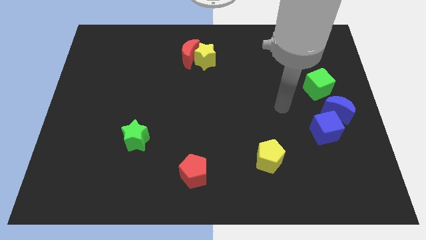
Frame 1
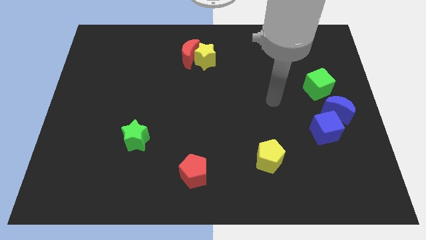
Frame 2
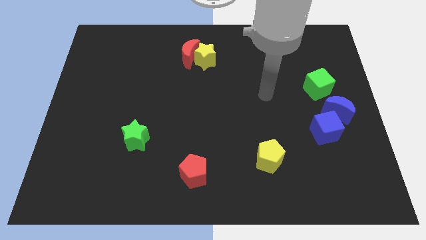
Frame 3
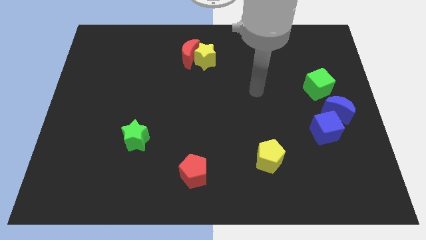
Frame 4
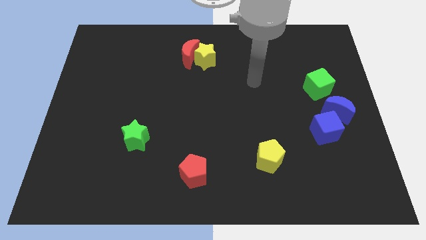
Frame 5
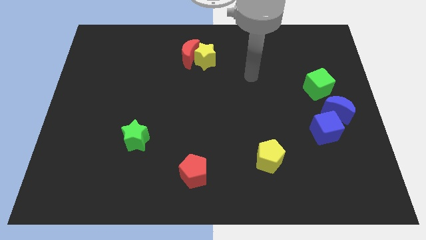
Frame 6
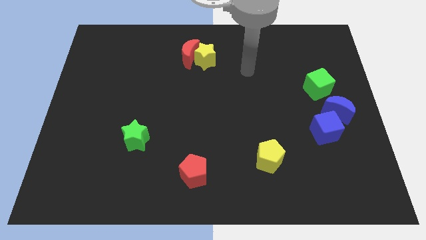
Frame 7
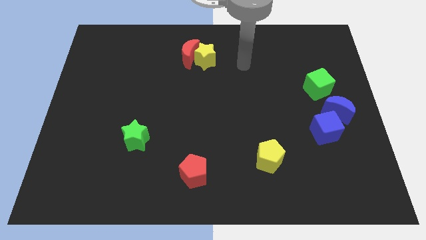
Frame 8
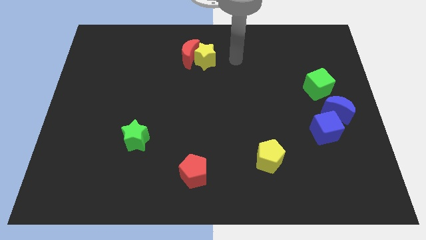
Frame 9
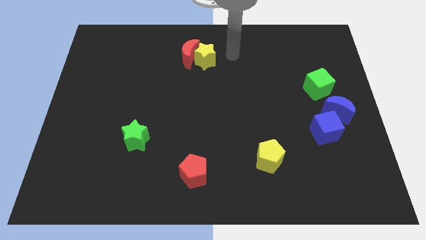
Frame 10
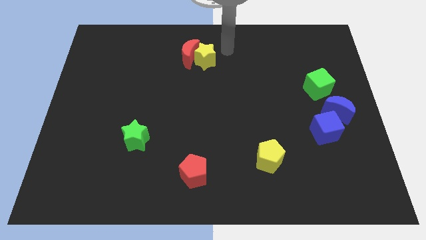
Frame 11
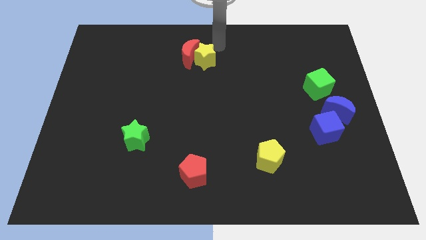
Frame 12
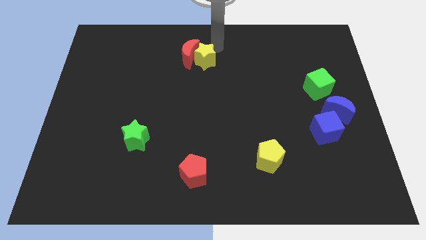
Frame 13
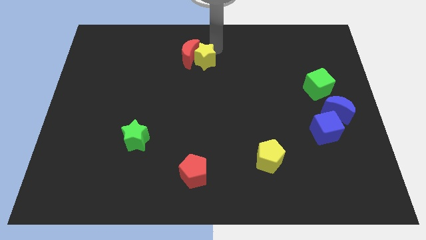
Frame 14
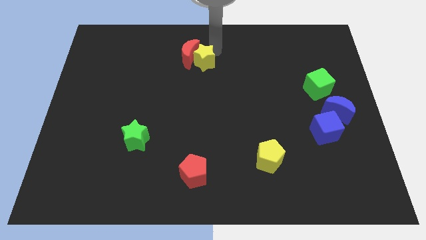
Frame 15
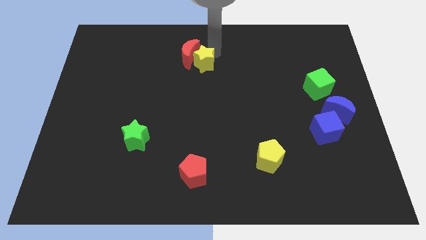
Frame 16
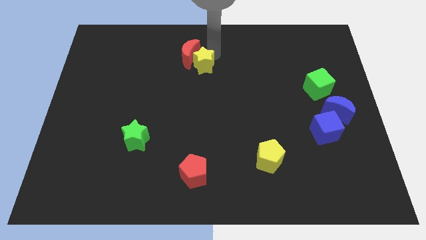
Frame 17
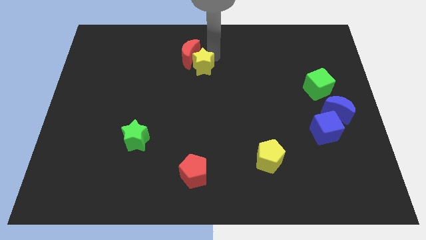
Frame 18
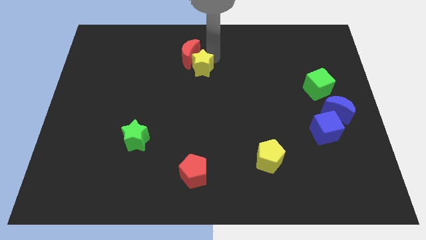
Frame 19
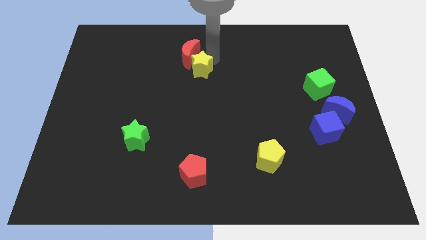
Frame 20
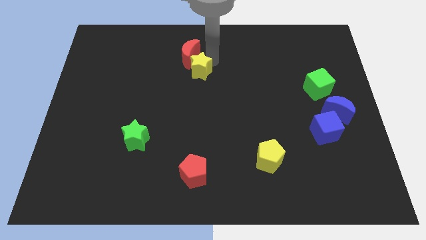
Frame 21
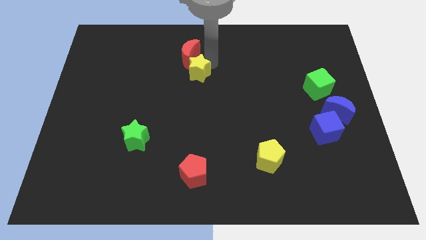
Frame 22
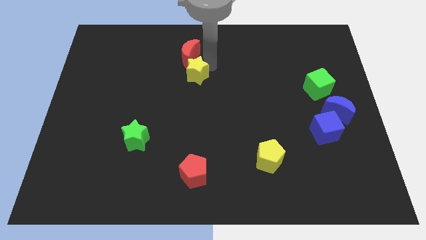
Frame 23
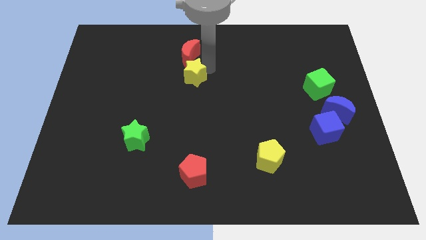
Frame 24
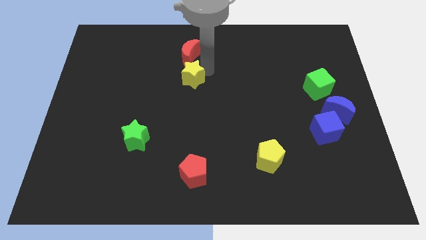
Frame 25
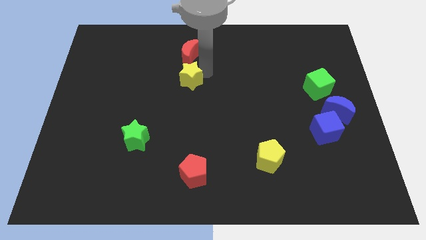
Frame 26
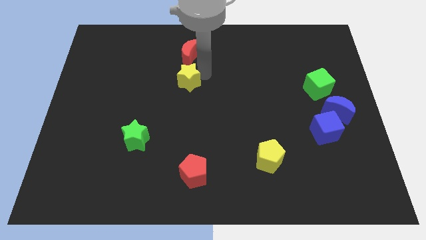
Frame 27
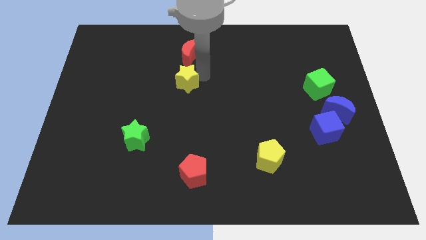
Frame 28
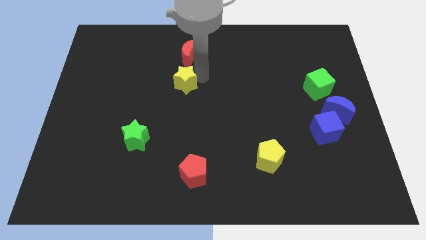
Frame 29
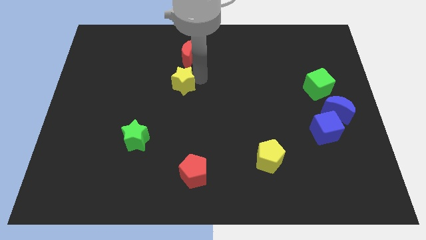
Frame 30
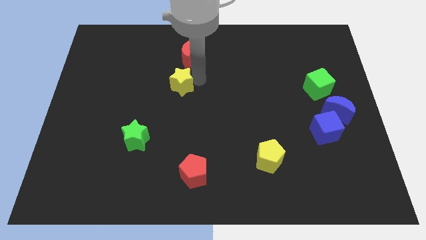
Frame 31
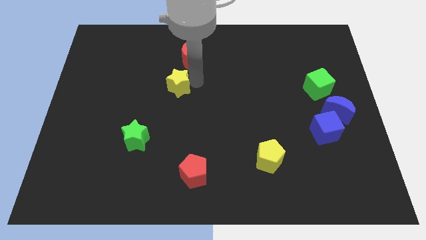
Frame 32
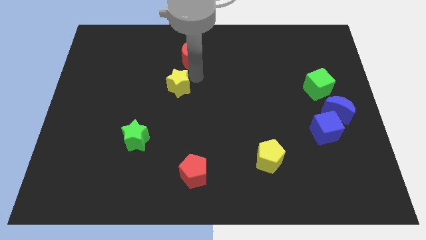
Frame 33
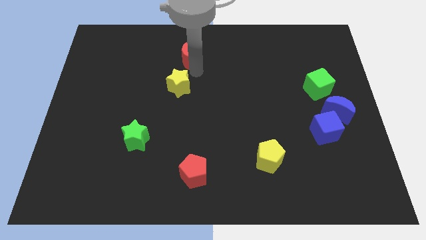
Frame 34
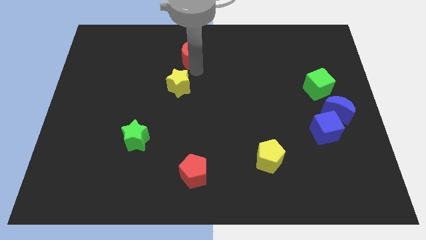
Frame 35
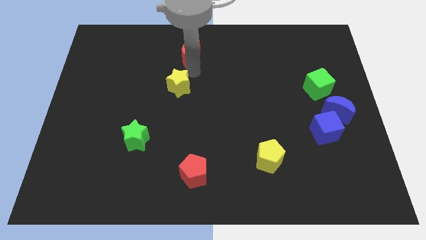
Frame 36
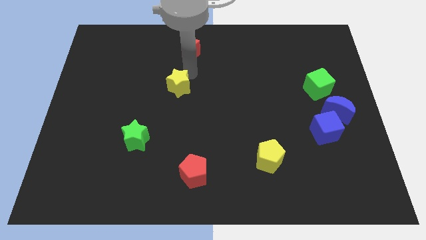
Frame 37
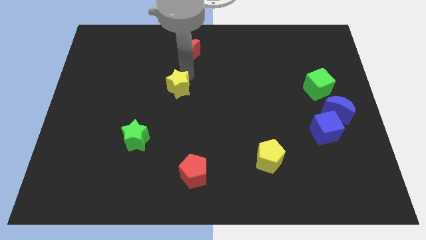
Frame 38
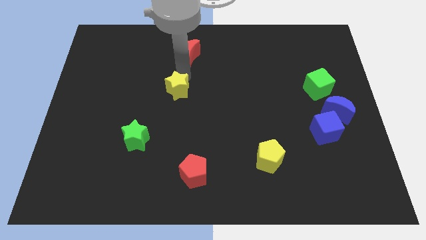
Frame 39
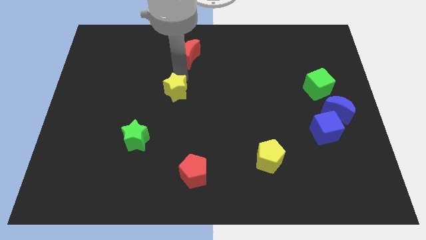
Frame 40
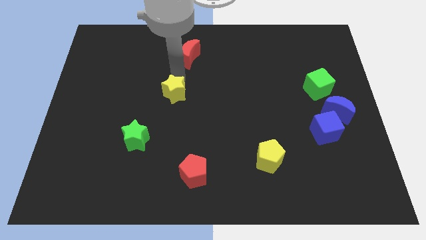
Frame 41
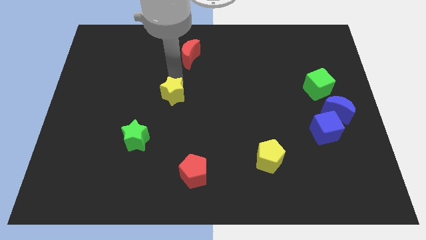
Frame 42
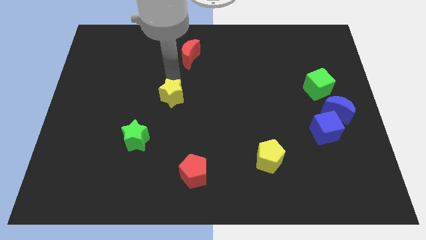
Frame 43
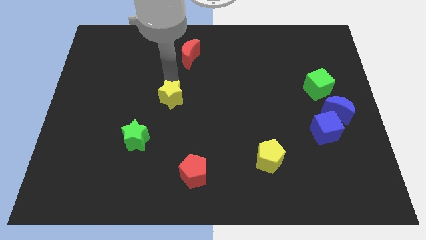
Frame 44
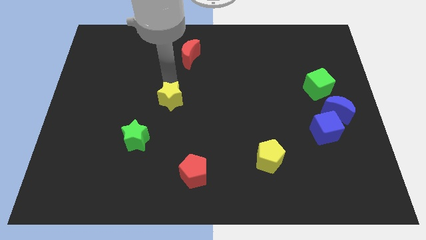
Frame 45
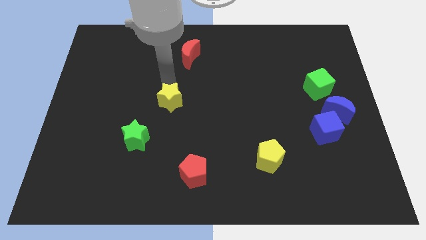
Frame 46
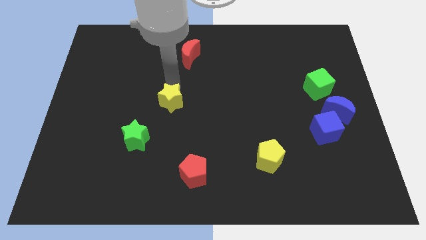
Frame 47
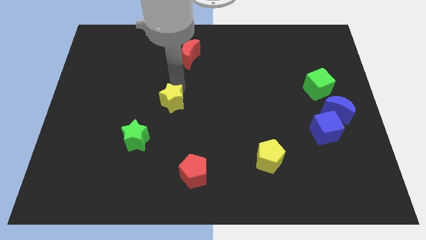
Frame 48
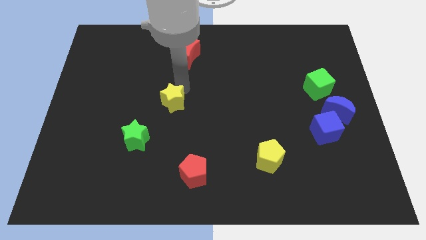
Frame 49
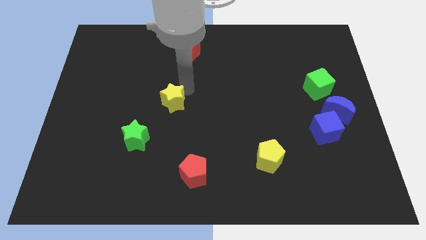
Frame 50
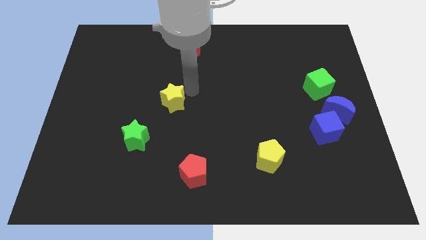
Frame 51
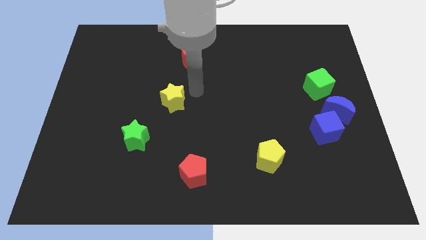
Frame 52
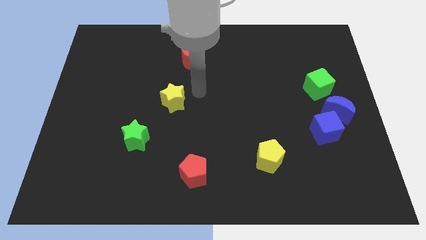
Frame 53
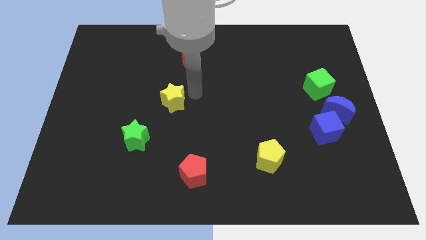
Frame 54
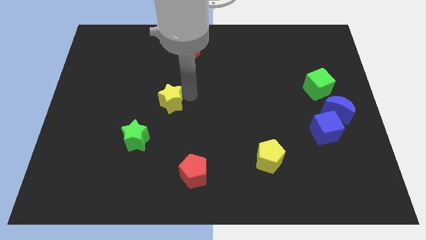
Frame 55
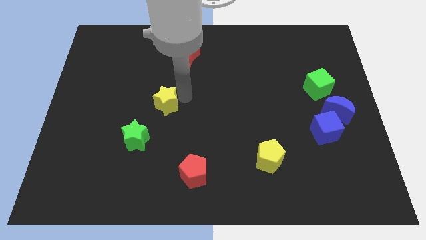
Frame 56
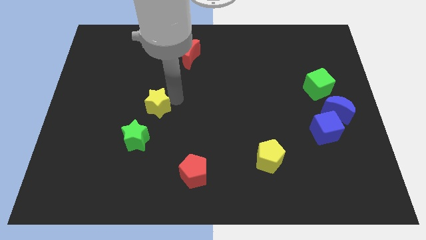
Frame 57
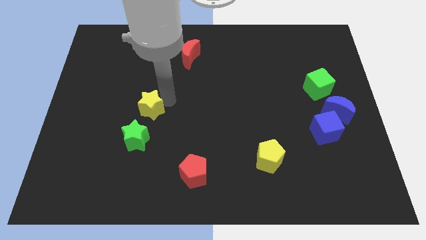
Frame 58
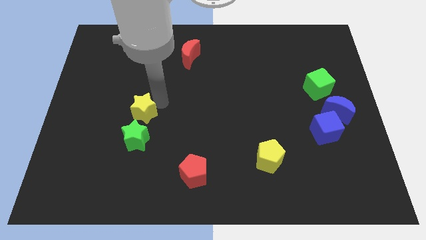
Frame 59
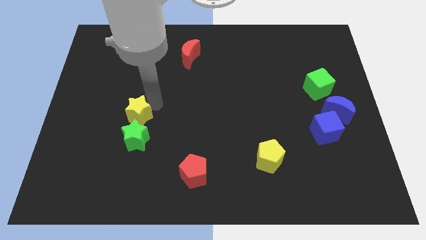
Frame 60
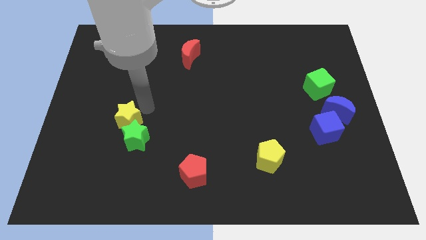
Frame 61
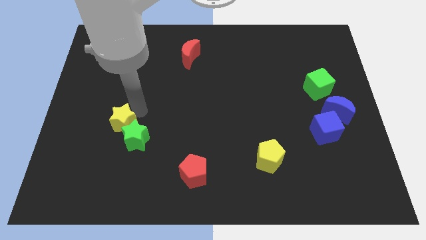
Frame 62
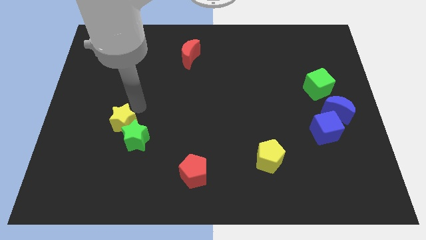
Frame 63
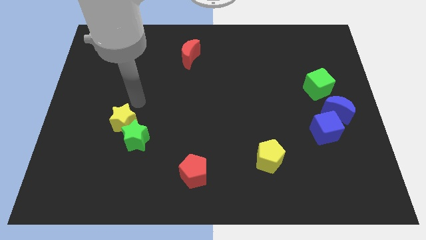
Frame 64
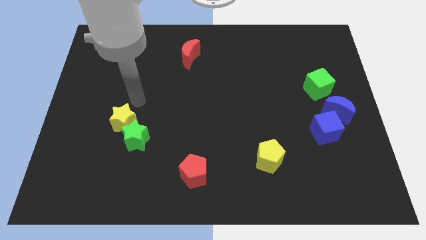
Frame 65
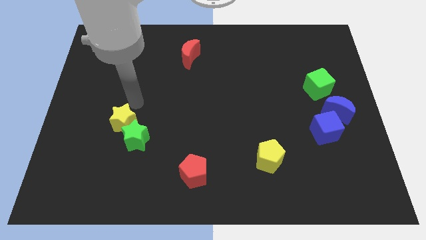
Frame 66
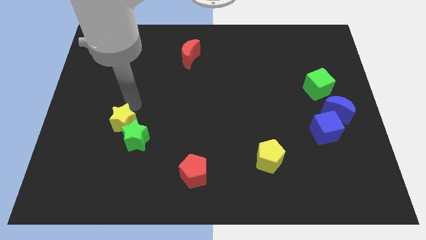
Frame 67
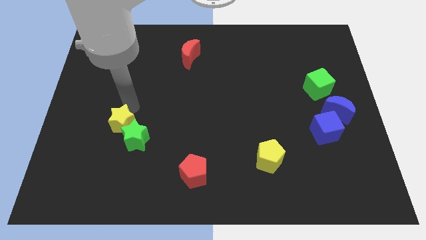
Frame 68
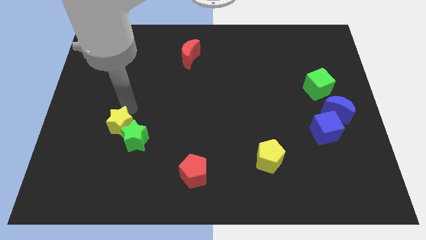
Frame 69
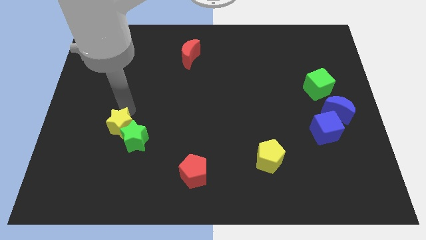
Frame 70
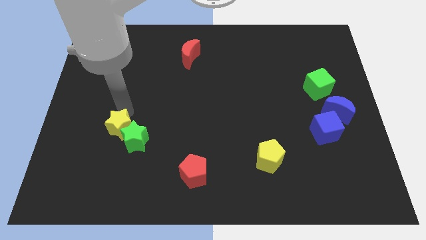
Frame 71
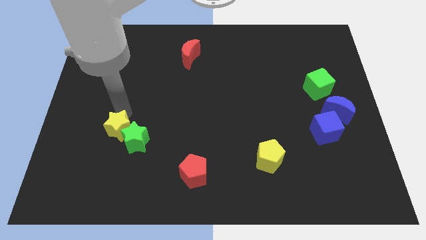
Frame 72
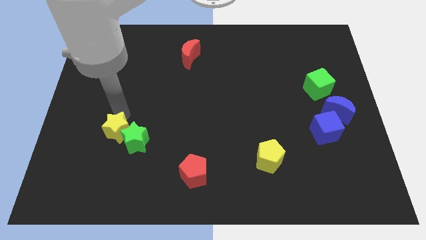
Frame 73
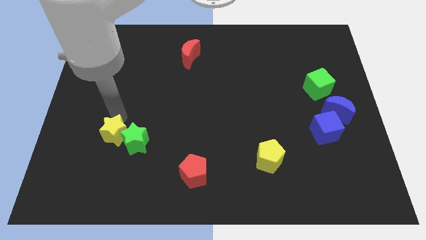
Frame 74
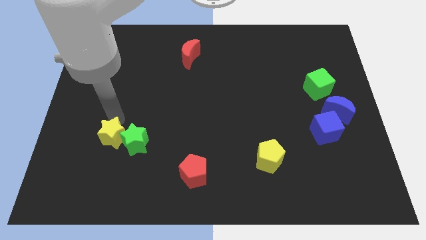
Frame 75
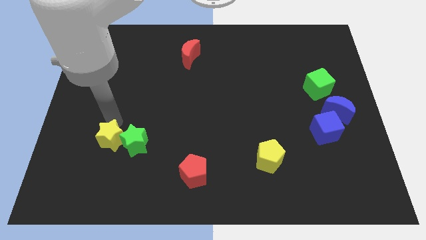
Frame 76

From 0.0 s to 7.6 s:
slide the yellow star to the bottom left of the green star
